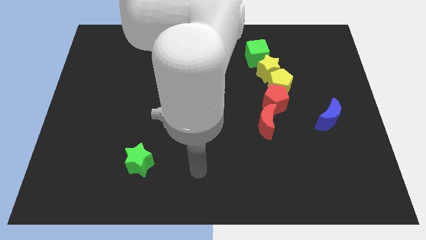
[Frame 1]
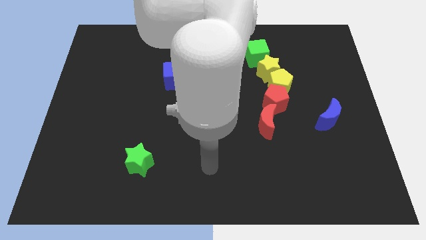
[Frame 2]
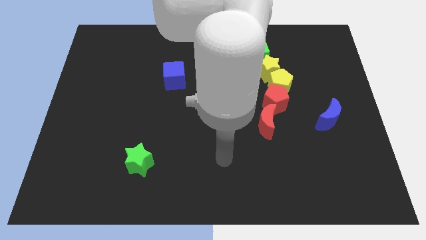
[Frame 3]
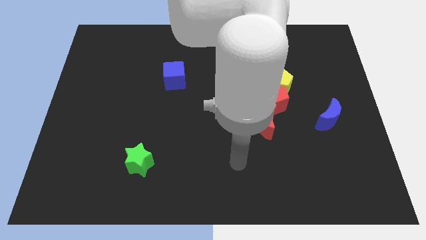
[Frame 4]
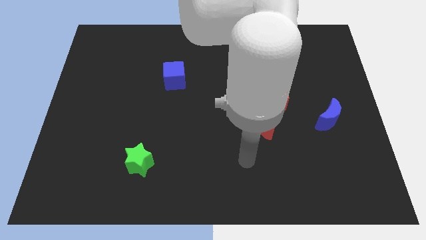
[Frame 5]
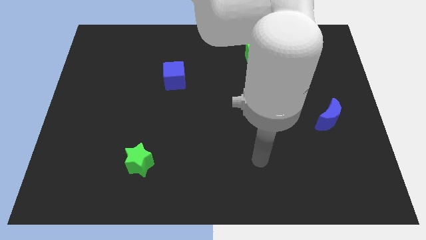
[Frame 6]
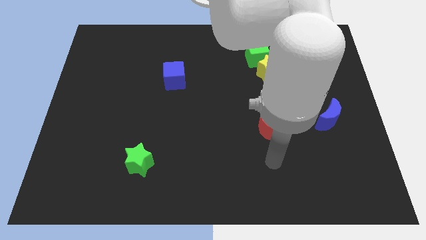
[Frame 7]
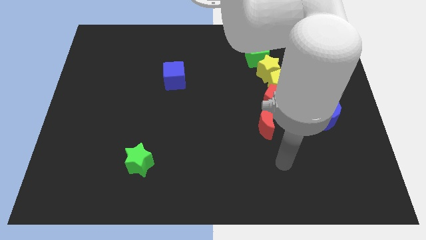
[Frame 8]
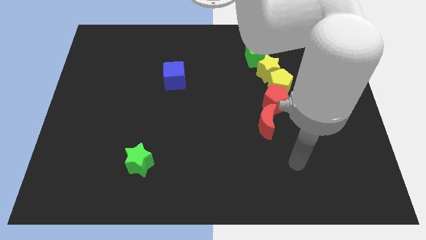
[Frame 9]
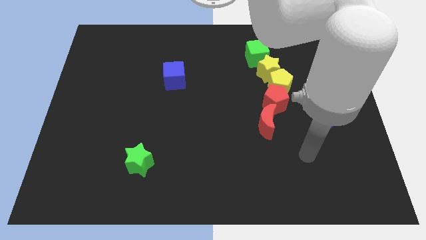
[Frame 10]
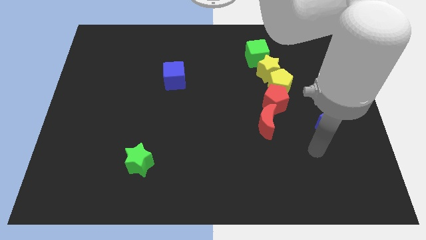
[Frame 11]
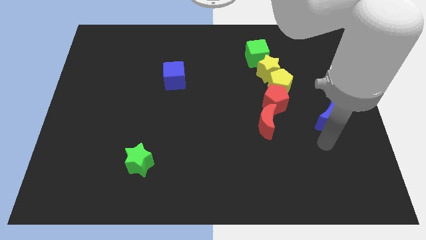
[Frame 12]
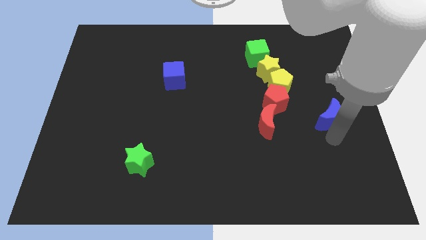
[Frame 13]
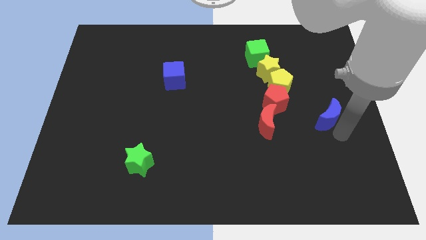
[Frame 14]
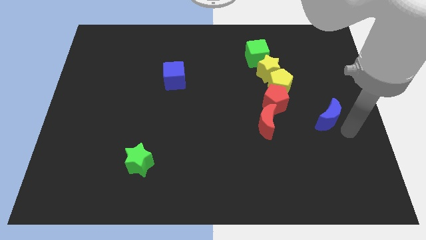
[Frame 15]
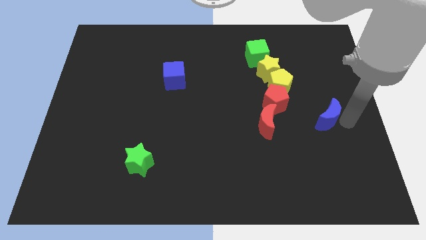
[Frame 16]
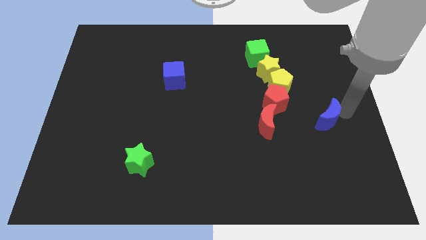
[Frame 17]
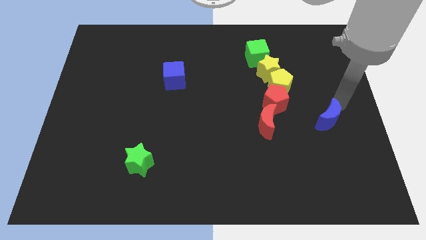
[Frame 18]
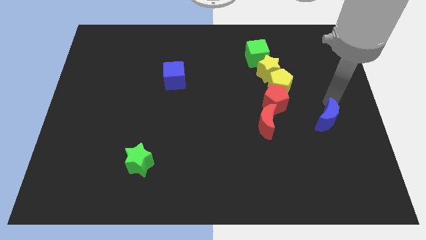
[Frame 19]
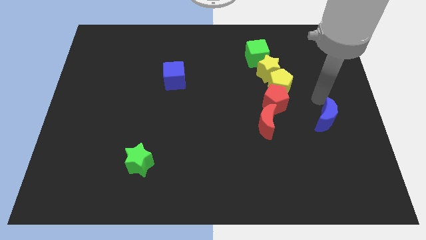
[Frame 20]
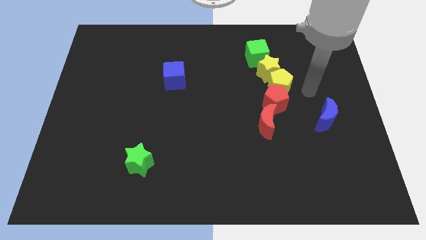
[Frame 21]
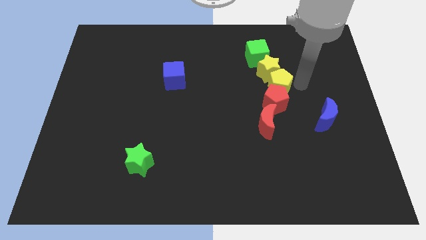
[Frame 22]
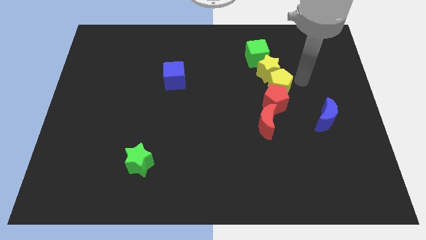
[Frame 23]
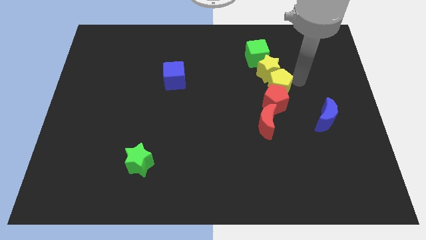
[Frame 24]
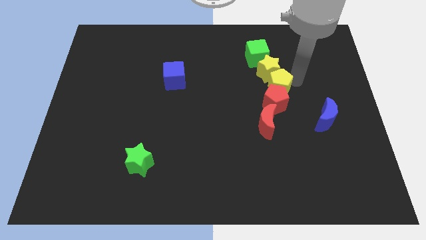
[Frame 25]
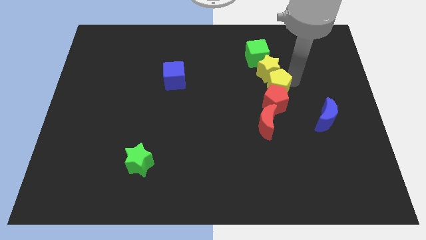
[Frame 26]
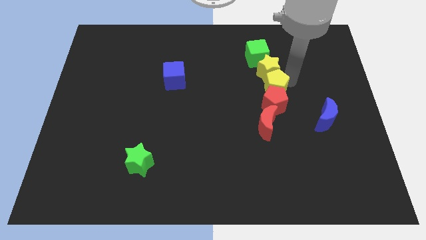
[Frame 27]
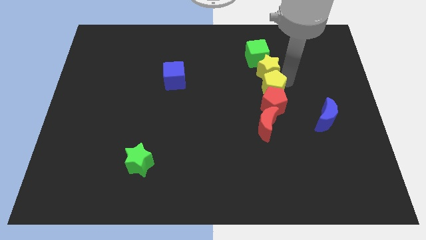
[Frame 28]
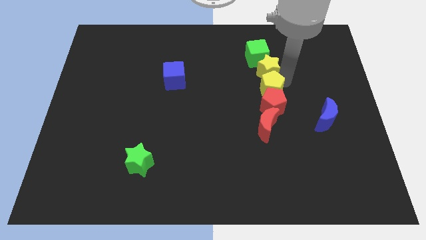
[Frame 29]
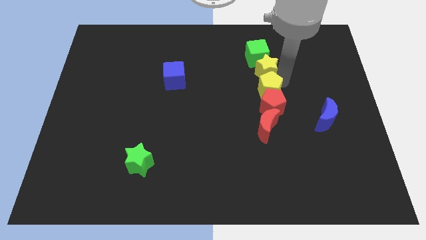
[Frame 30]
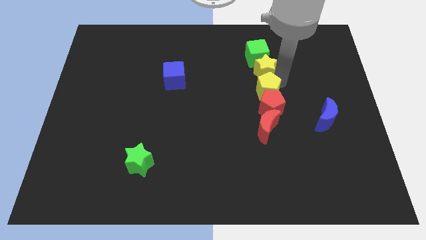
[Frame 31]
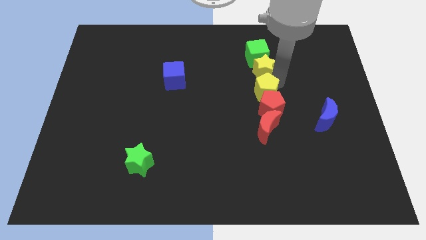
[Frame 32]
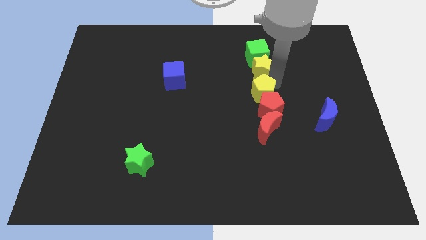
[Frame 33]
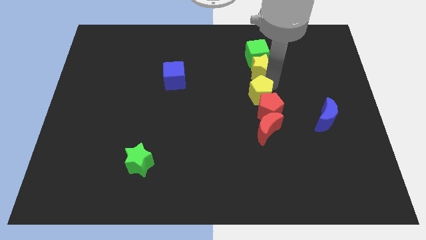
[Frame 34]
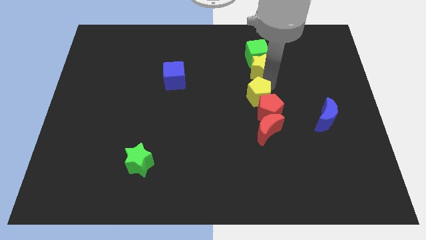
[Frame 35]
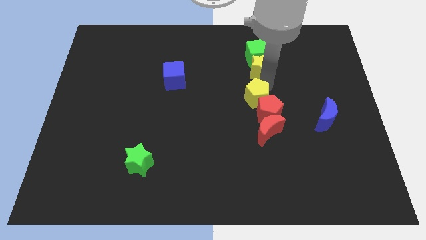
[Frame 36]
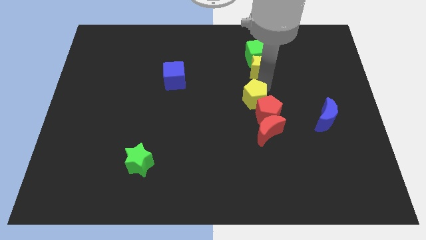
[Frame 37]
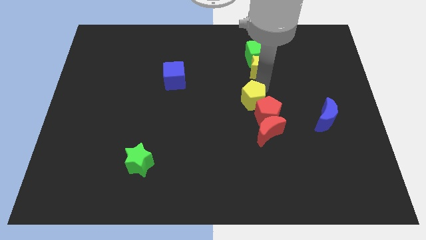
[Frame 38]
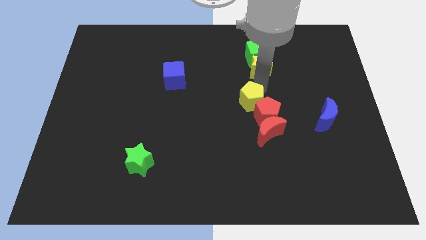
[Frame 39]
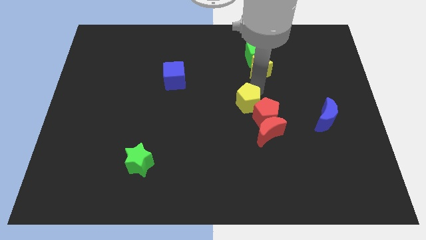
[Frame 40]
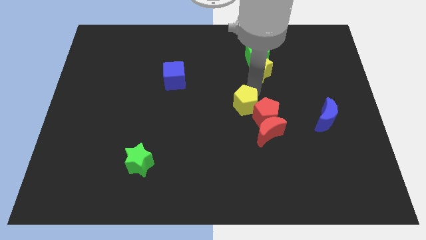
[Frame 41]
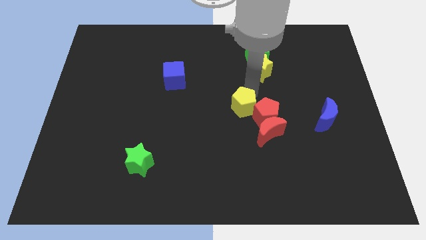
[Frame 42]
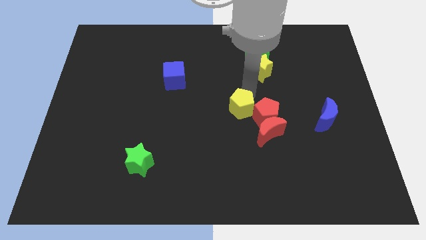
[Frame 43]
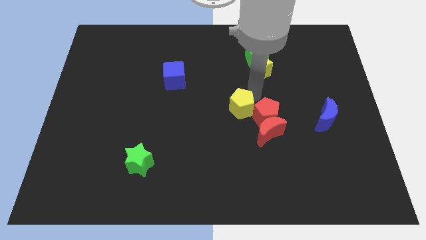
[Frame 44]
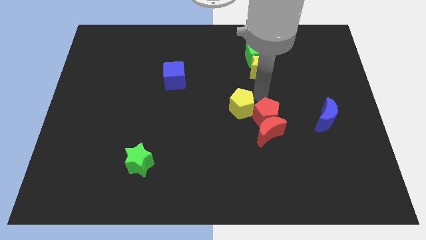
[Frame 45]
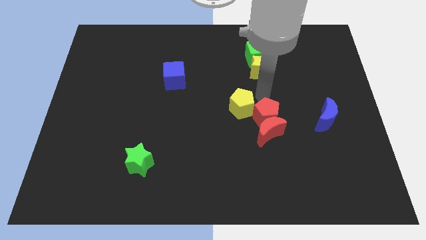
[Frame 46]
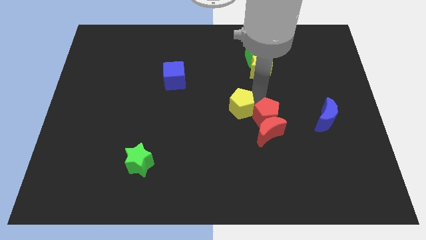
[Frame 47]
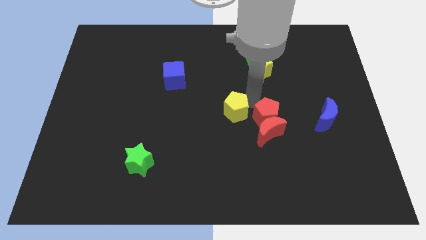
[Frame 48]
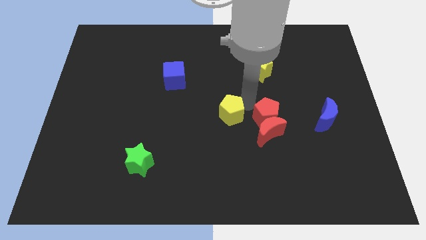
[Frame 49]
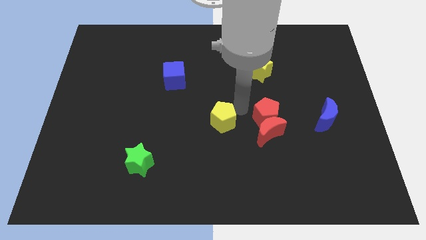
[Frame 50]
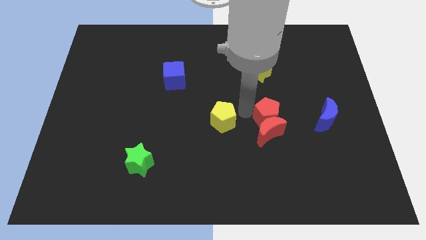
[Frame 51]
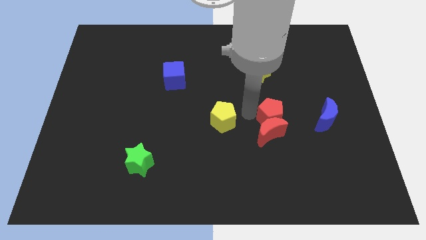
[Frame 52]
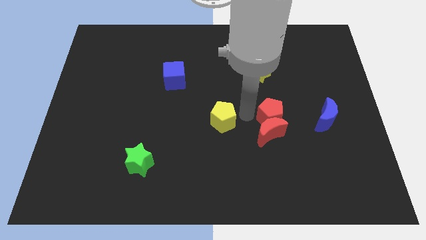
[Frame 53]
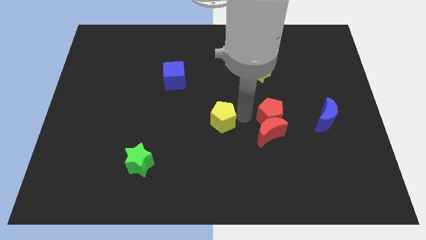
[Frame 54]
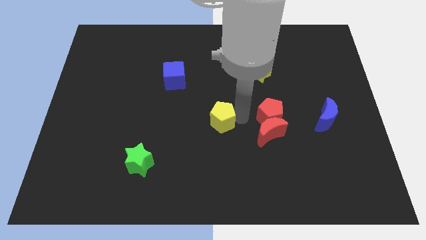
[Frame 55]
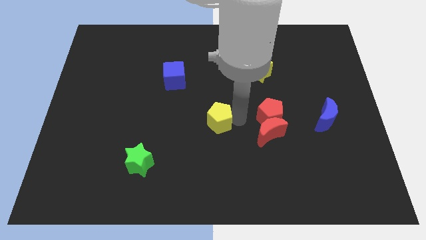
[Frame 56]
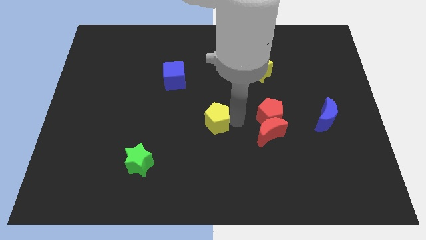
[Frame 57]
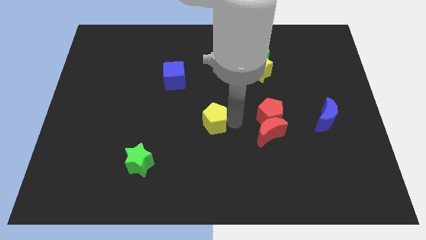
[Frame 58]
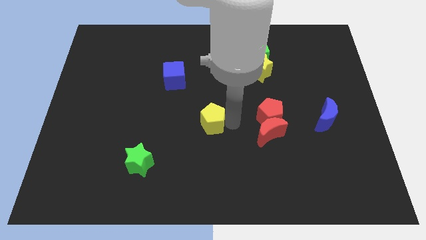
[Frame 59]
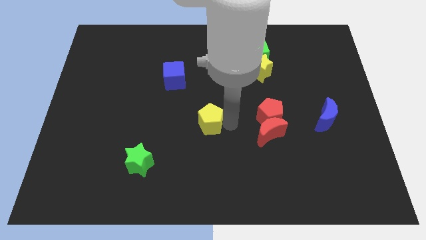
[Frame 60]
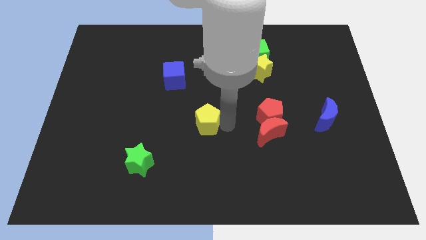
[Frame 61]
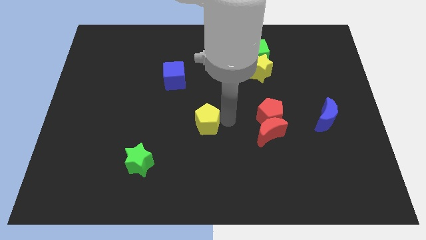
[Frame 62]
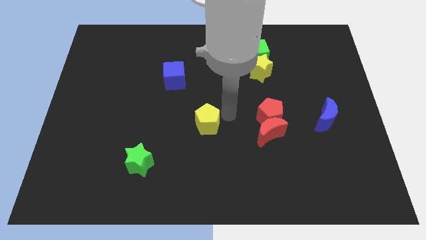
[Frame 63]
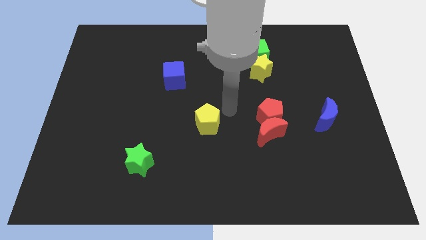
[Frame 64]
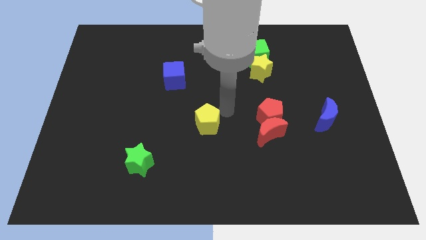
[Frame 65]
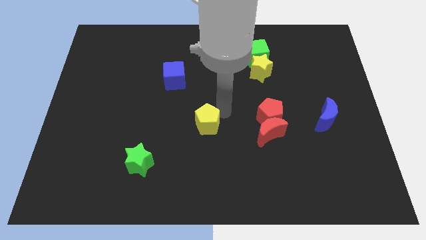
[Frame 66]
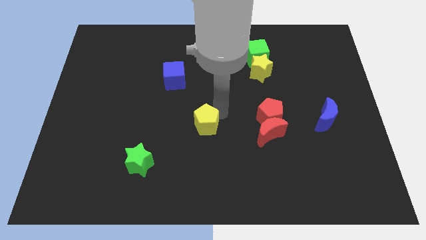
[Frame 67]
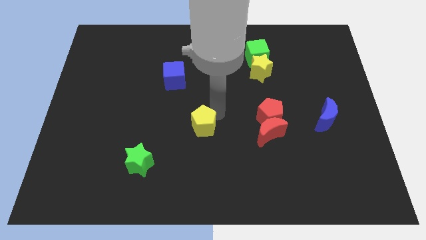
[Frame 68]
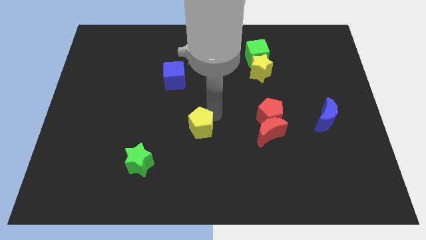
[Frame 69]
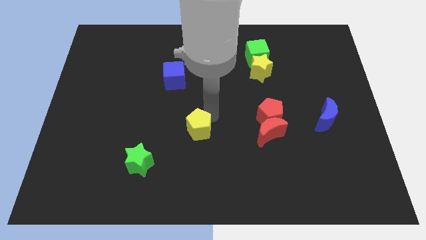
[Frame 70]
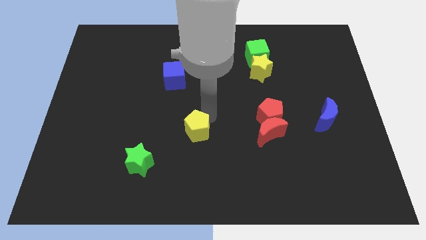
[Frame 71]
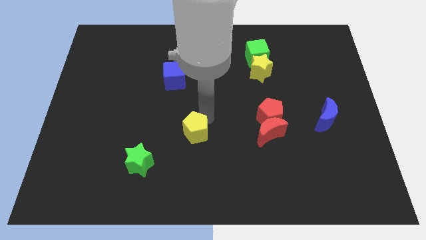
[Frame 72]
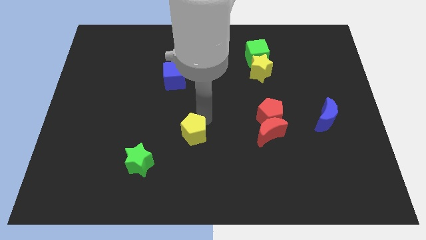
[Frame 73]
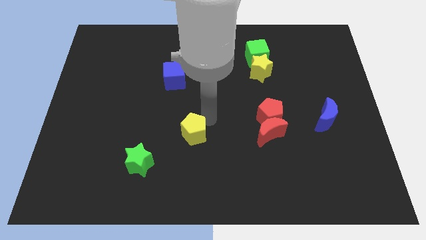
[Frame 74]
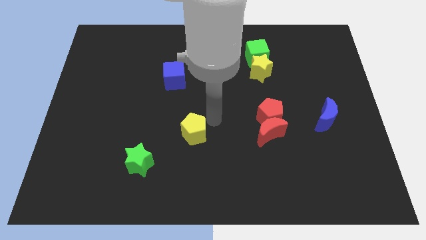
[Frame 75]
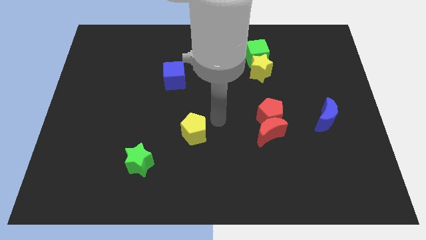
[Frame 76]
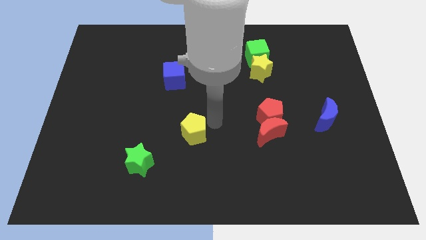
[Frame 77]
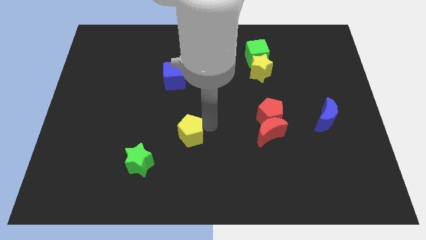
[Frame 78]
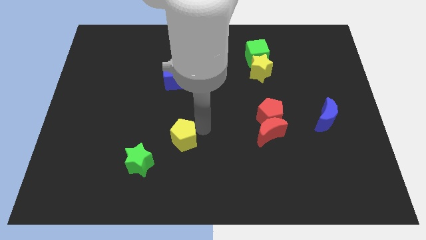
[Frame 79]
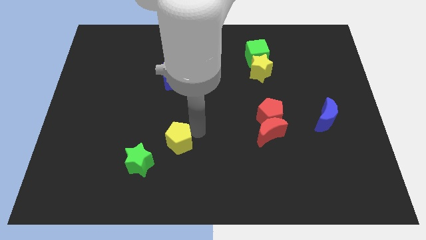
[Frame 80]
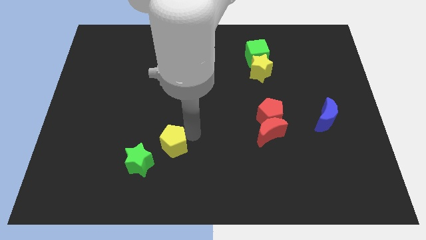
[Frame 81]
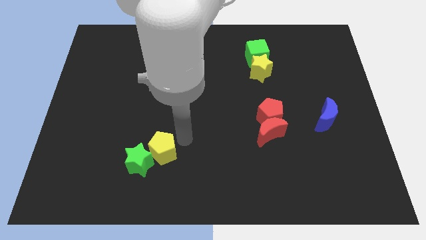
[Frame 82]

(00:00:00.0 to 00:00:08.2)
put the yellow pentagon close to the green star
